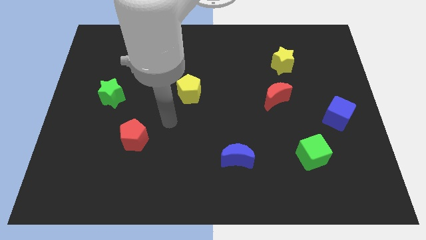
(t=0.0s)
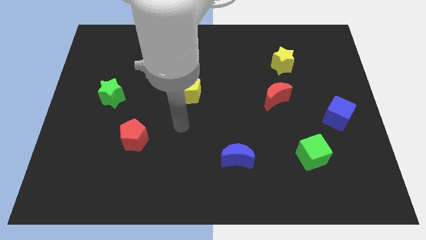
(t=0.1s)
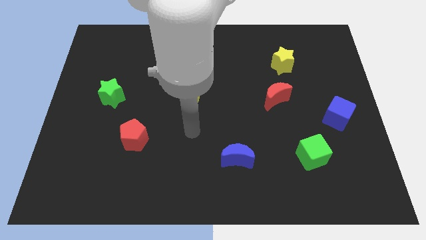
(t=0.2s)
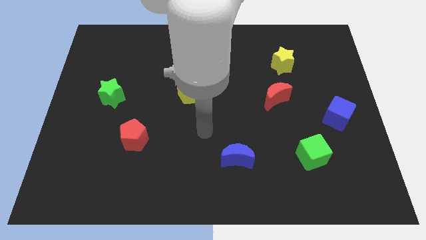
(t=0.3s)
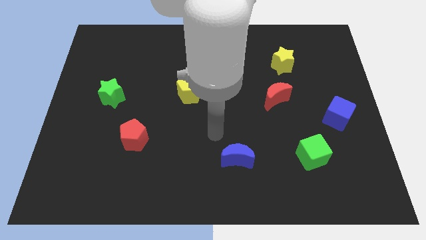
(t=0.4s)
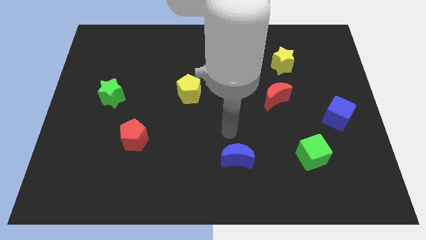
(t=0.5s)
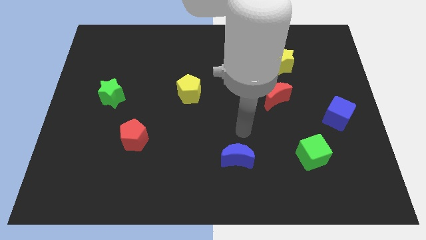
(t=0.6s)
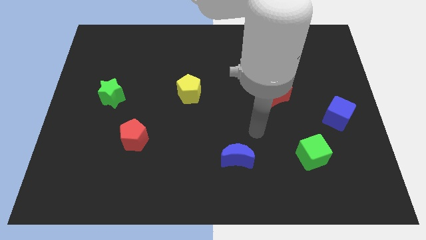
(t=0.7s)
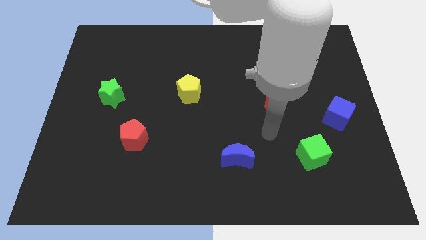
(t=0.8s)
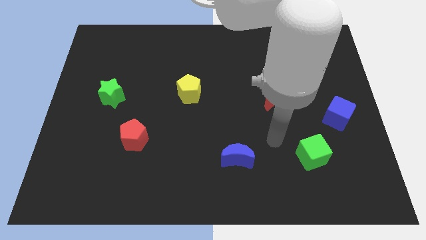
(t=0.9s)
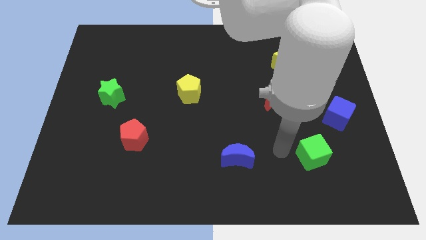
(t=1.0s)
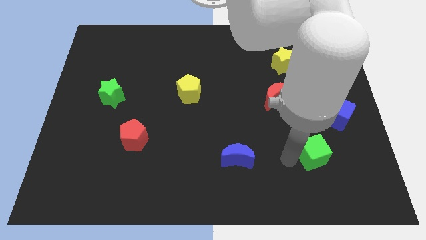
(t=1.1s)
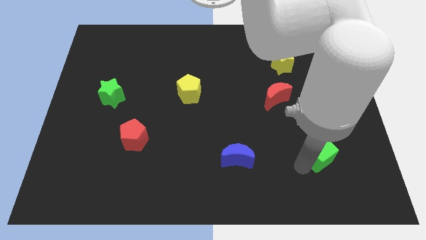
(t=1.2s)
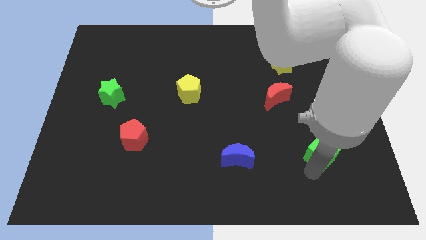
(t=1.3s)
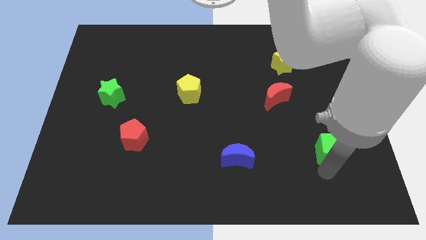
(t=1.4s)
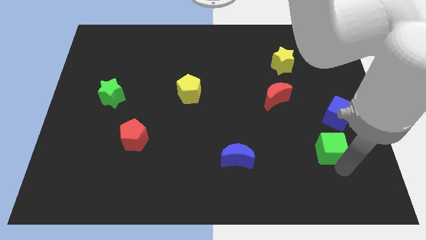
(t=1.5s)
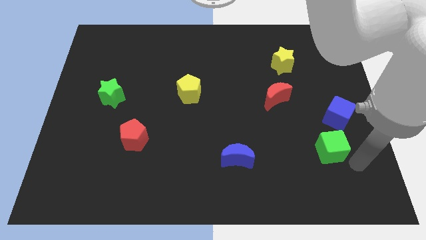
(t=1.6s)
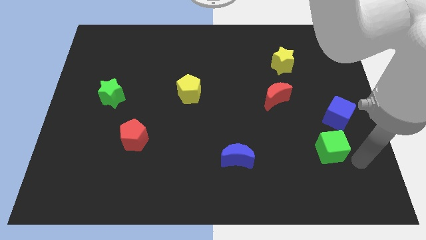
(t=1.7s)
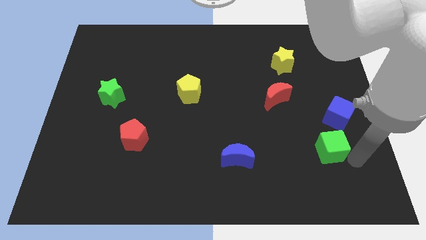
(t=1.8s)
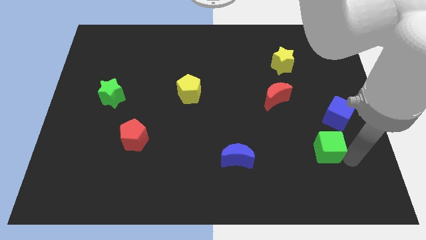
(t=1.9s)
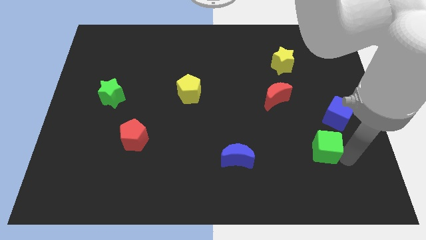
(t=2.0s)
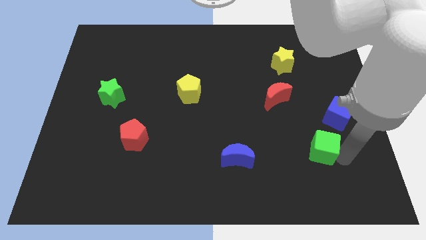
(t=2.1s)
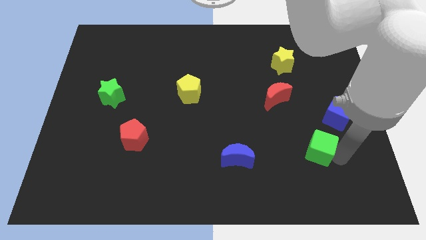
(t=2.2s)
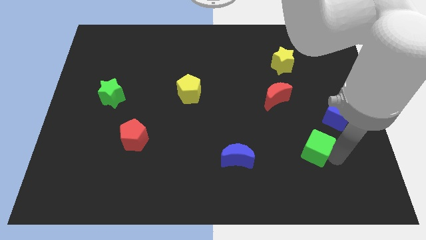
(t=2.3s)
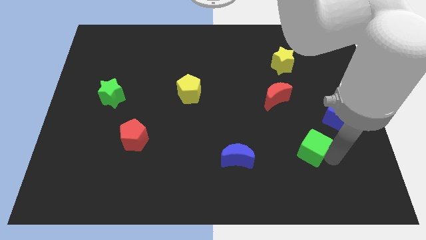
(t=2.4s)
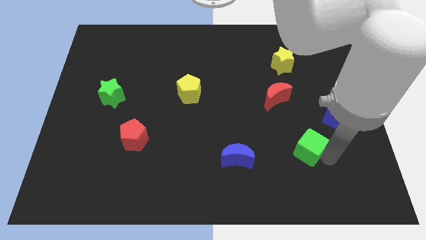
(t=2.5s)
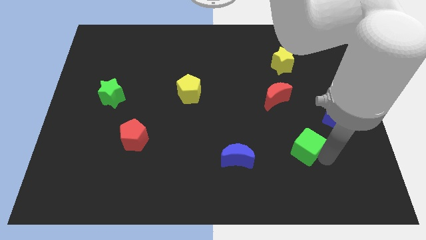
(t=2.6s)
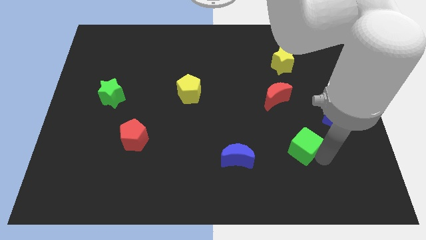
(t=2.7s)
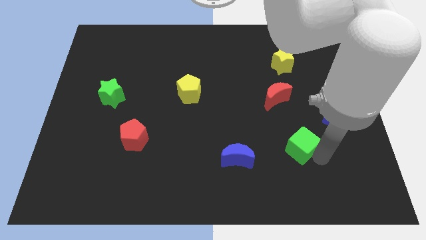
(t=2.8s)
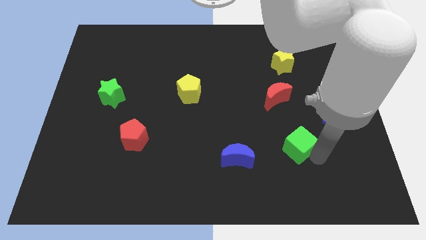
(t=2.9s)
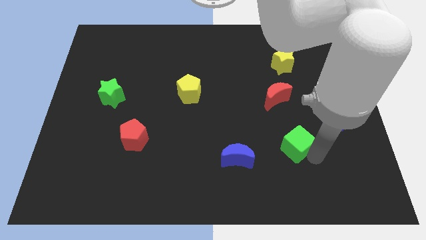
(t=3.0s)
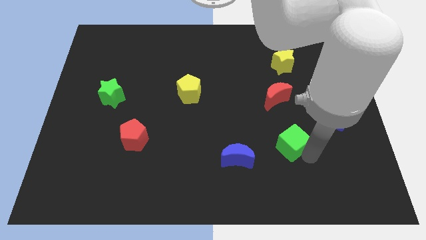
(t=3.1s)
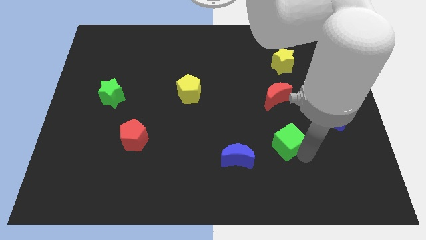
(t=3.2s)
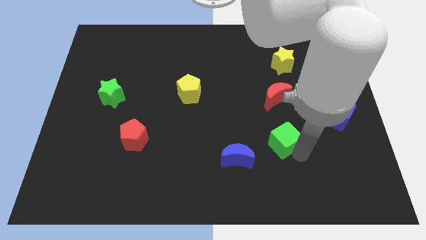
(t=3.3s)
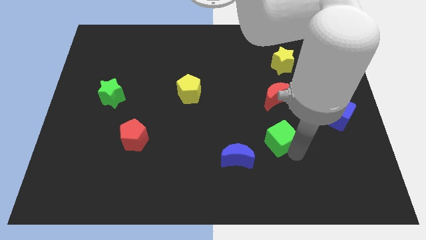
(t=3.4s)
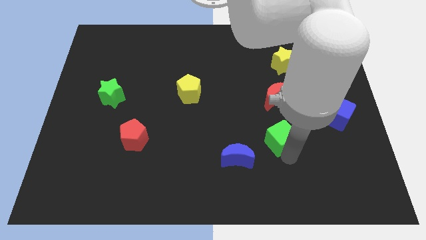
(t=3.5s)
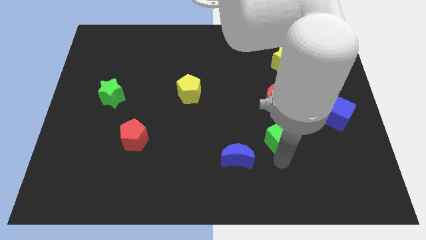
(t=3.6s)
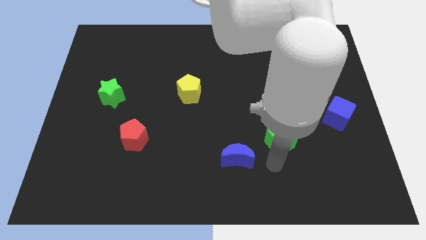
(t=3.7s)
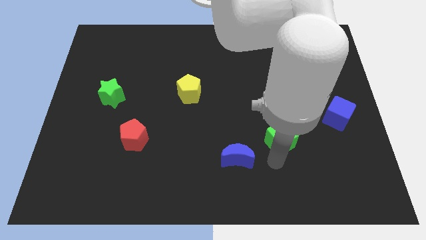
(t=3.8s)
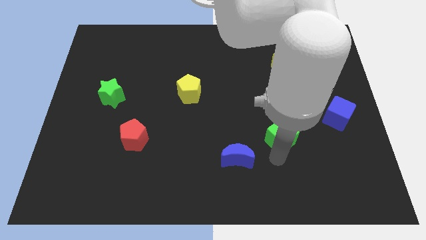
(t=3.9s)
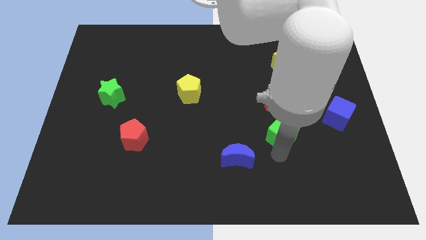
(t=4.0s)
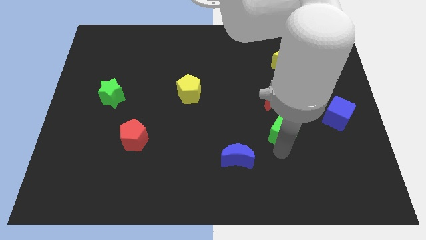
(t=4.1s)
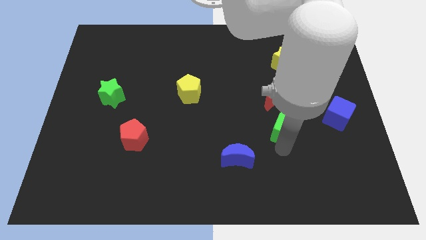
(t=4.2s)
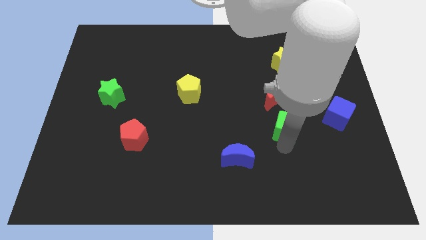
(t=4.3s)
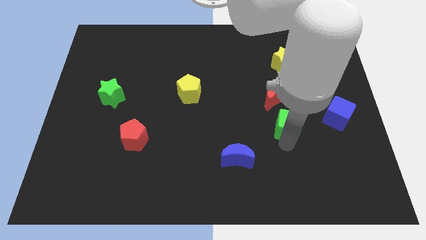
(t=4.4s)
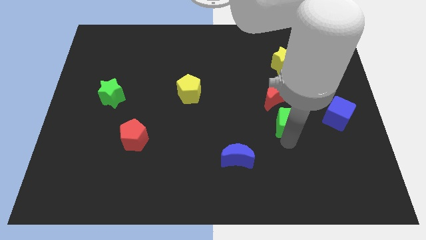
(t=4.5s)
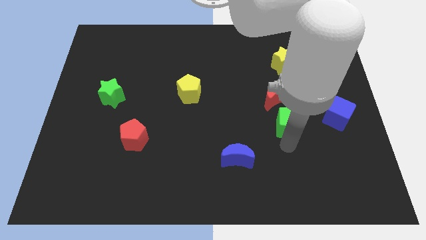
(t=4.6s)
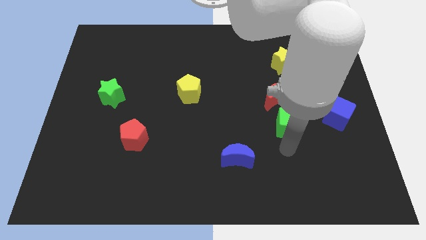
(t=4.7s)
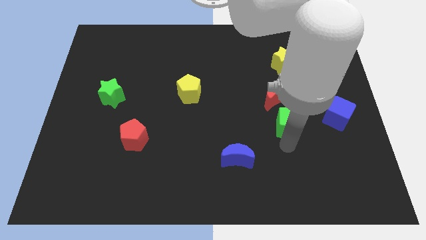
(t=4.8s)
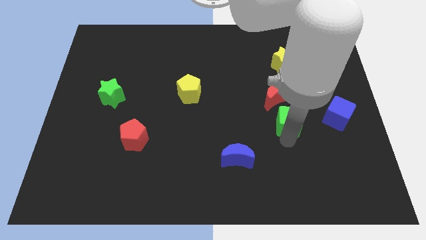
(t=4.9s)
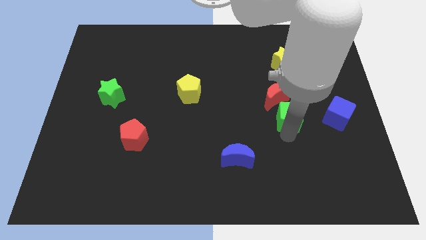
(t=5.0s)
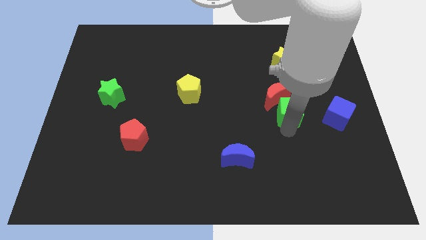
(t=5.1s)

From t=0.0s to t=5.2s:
move the green cube to the bottom of the yellow star

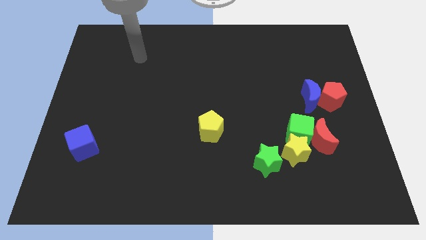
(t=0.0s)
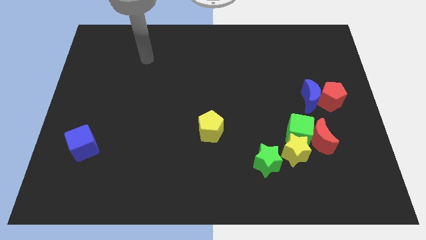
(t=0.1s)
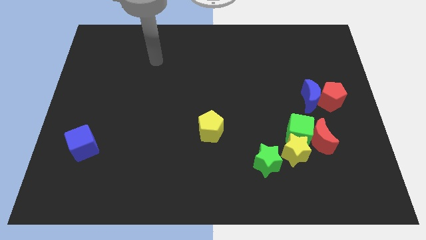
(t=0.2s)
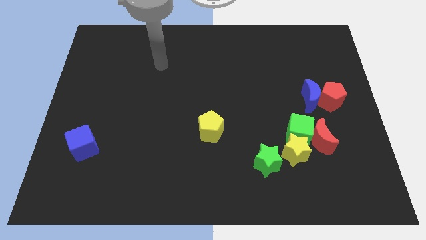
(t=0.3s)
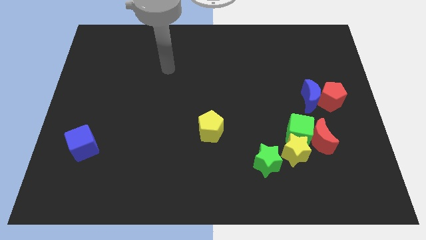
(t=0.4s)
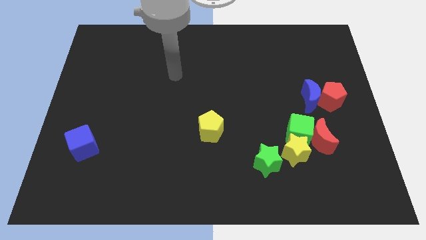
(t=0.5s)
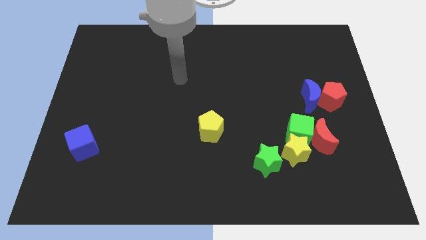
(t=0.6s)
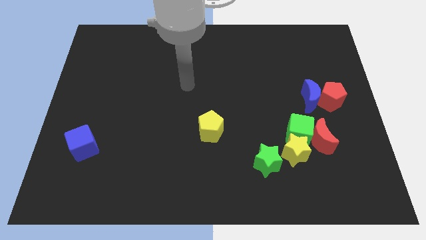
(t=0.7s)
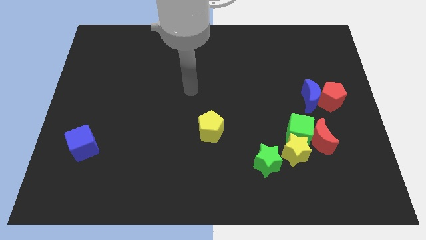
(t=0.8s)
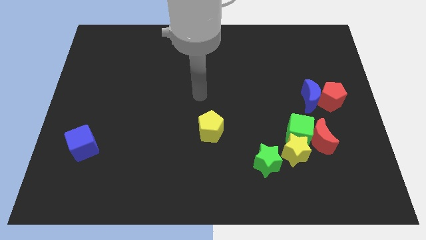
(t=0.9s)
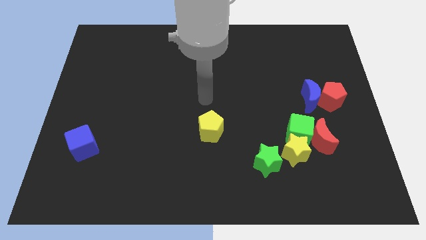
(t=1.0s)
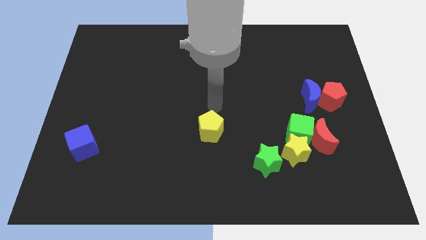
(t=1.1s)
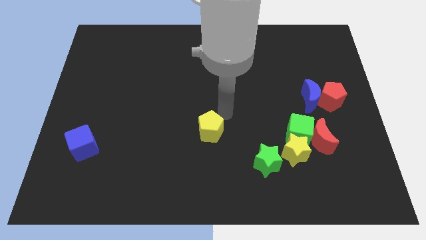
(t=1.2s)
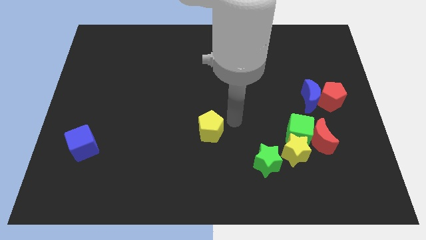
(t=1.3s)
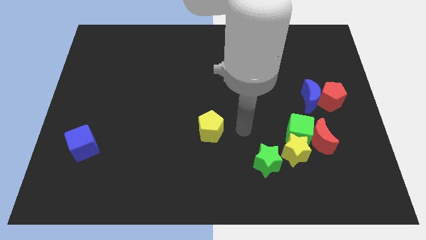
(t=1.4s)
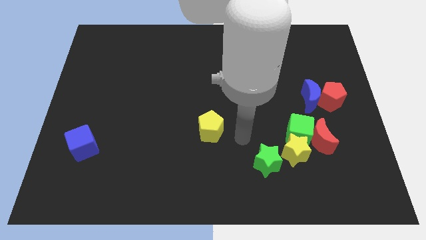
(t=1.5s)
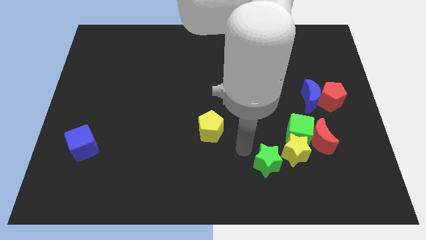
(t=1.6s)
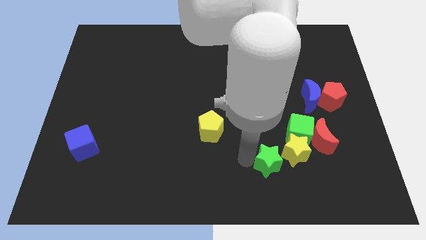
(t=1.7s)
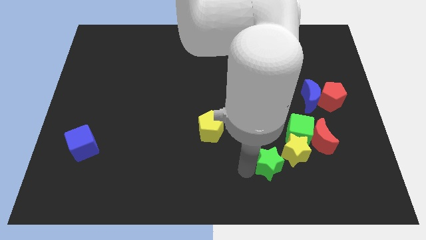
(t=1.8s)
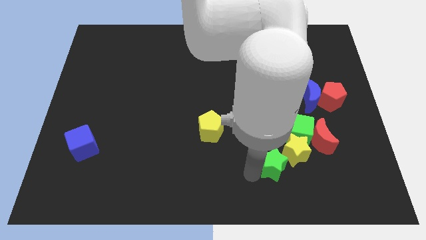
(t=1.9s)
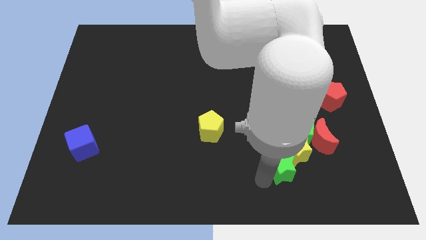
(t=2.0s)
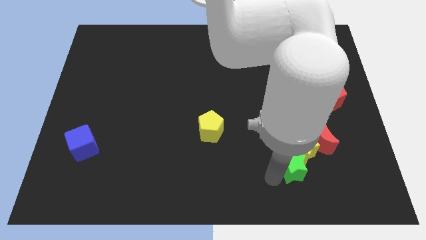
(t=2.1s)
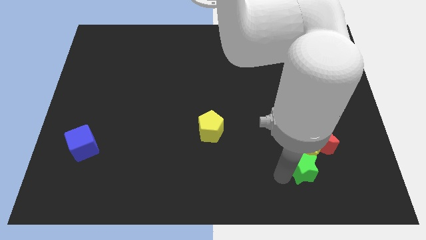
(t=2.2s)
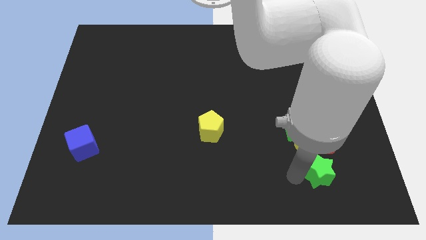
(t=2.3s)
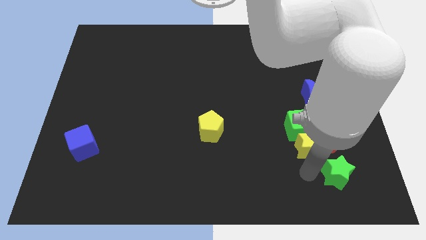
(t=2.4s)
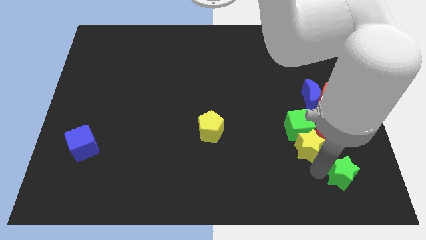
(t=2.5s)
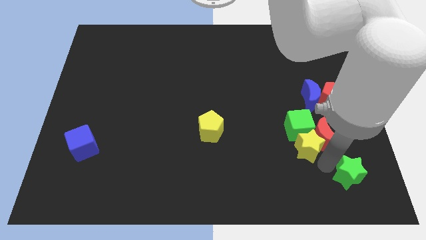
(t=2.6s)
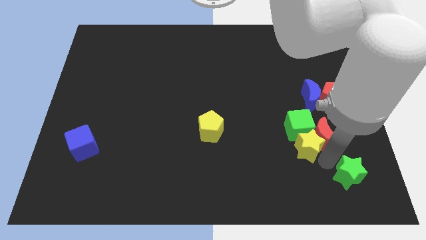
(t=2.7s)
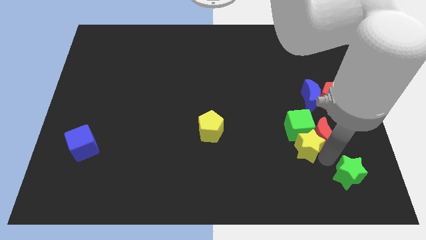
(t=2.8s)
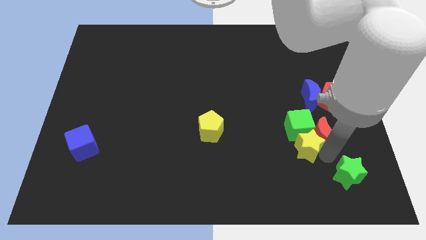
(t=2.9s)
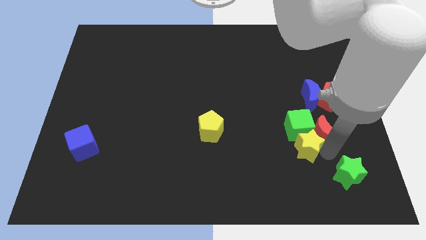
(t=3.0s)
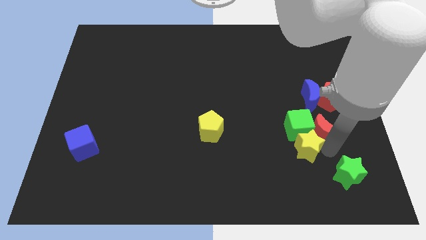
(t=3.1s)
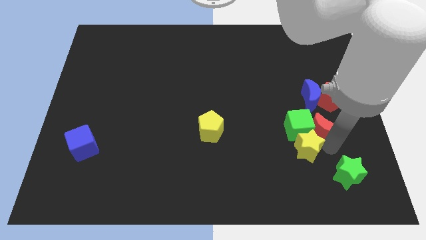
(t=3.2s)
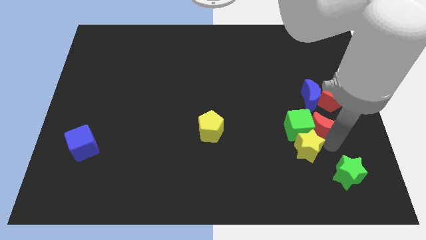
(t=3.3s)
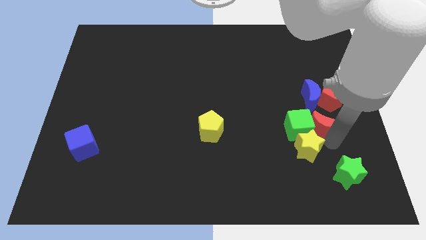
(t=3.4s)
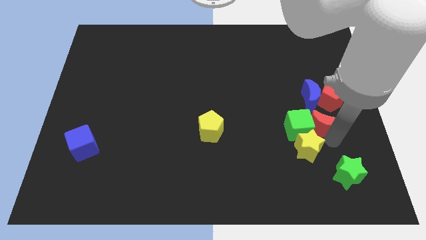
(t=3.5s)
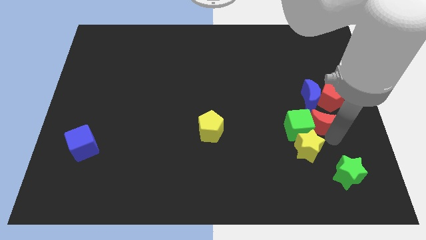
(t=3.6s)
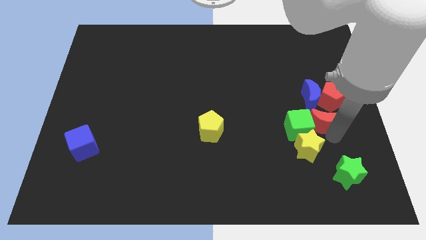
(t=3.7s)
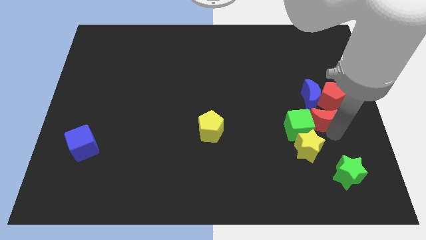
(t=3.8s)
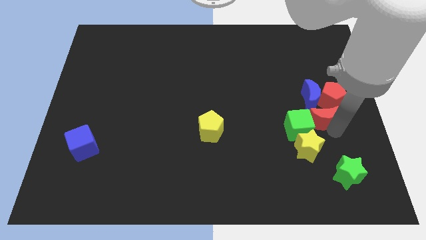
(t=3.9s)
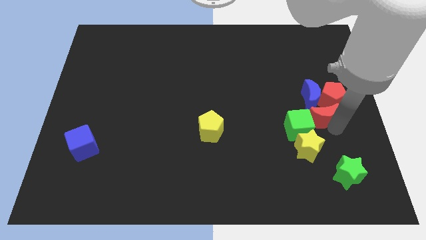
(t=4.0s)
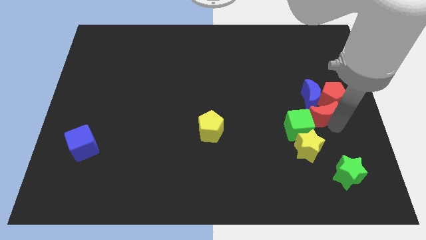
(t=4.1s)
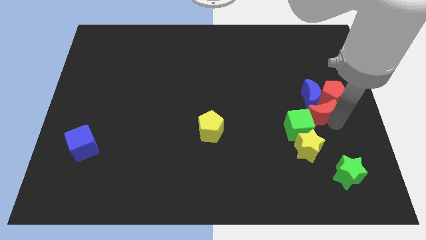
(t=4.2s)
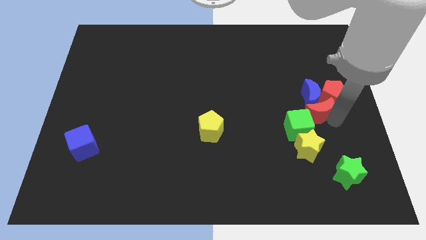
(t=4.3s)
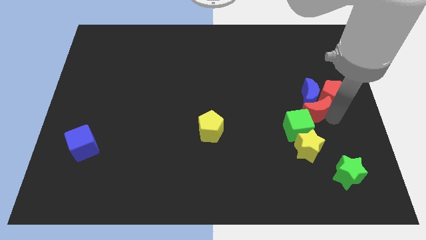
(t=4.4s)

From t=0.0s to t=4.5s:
slide the red moon to the top side of the green cube
